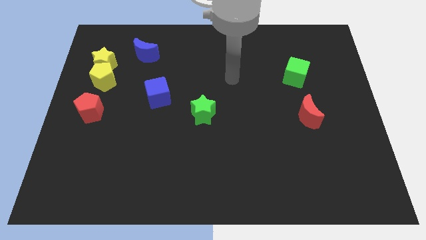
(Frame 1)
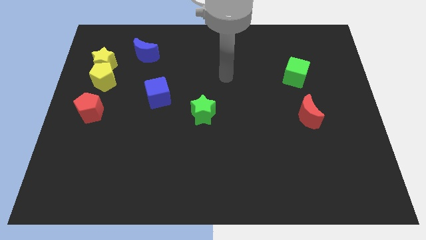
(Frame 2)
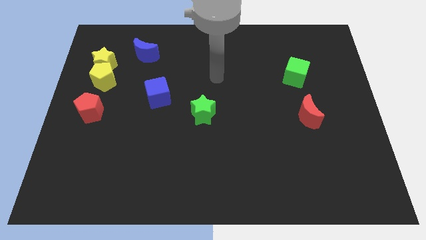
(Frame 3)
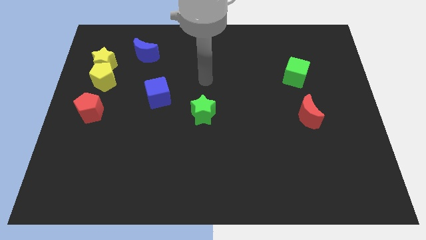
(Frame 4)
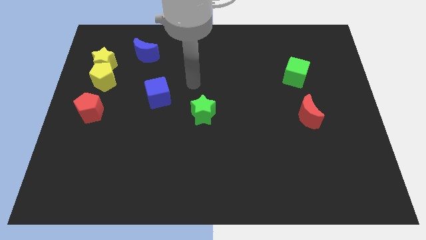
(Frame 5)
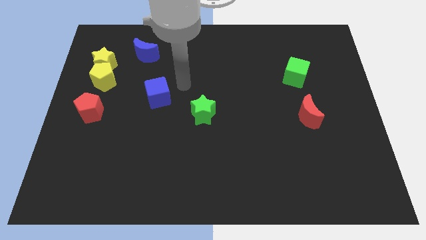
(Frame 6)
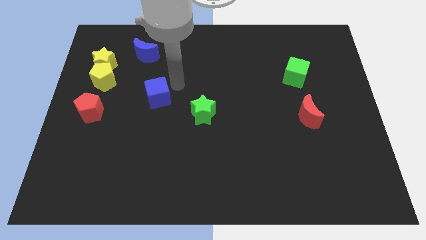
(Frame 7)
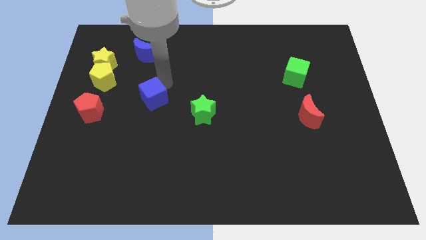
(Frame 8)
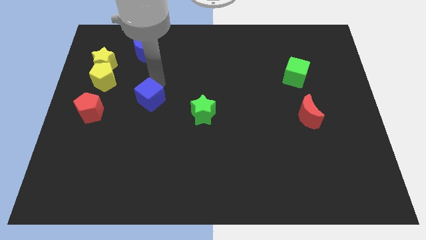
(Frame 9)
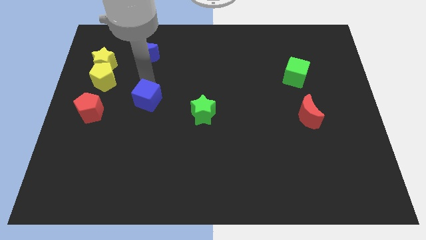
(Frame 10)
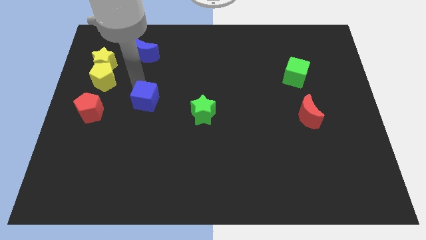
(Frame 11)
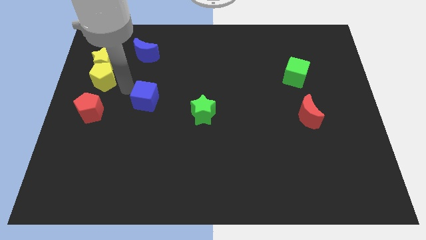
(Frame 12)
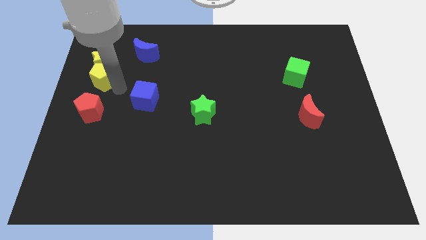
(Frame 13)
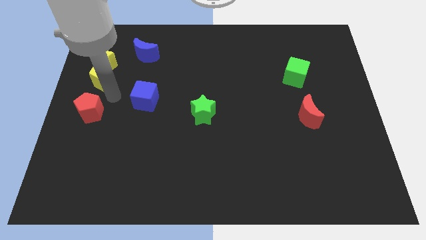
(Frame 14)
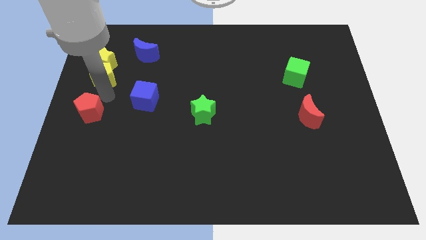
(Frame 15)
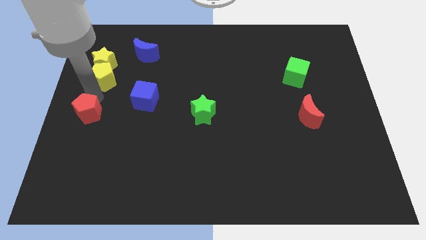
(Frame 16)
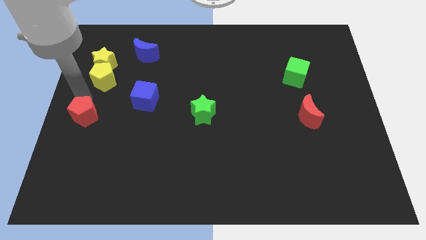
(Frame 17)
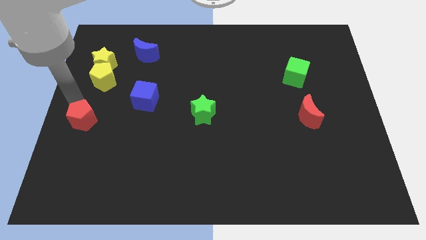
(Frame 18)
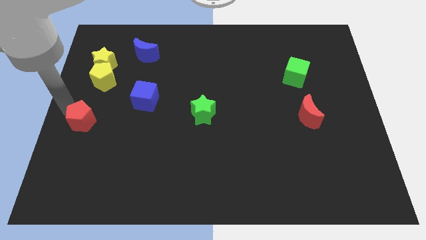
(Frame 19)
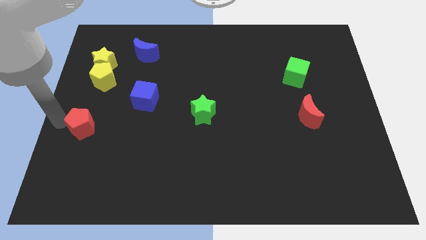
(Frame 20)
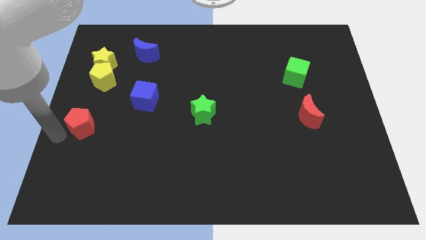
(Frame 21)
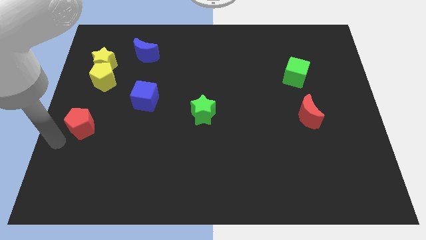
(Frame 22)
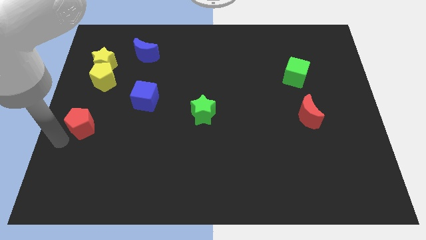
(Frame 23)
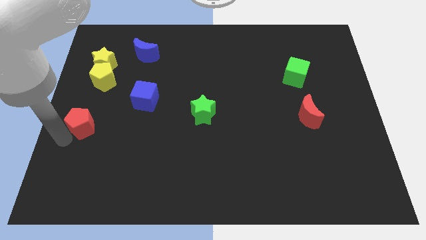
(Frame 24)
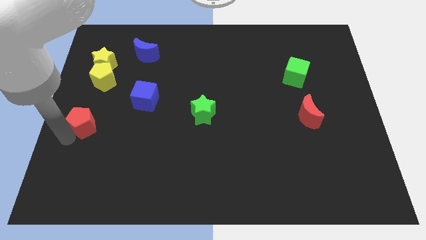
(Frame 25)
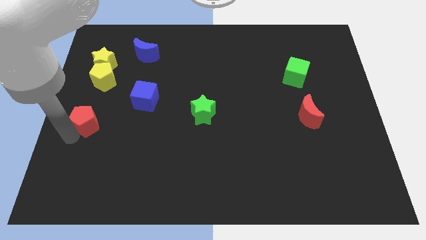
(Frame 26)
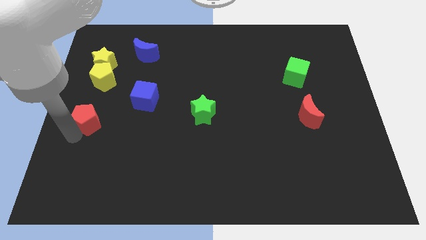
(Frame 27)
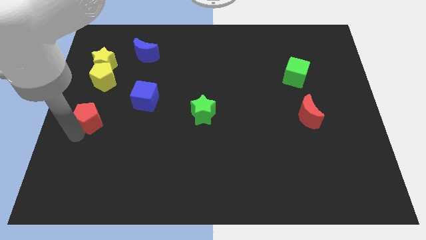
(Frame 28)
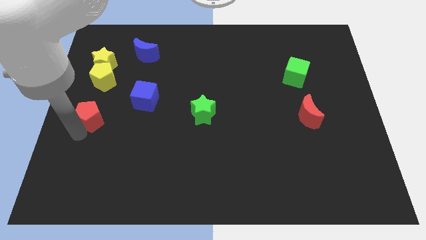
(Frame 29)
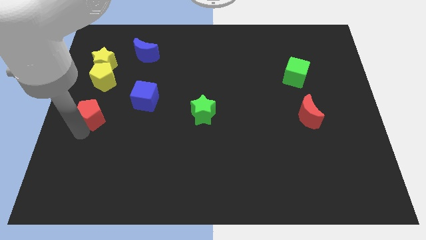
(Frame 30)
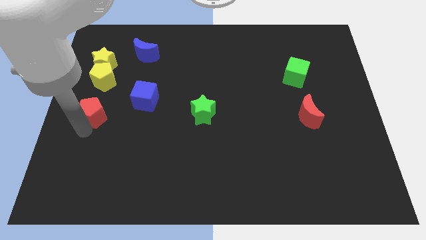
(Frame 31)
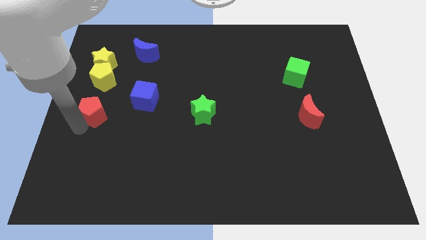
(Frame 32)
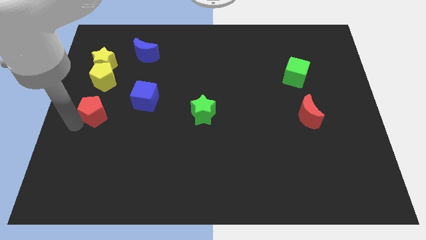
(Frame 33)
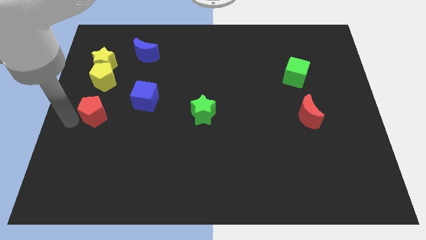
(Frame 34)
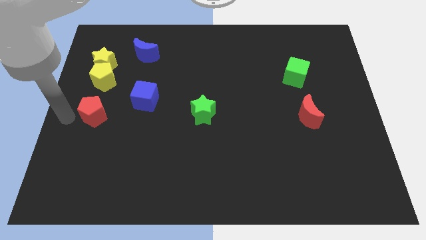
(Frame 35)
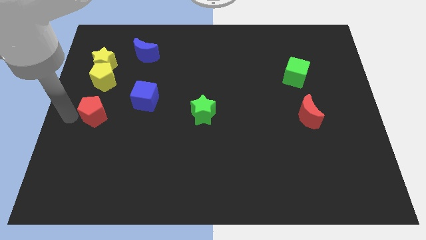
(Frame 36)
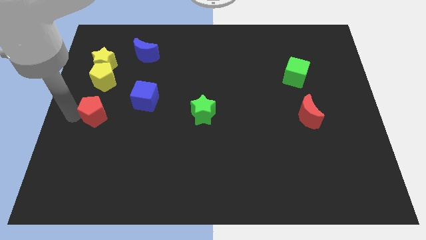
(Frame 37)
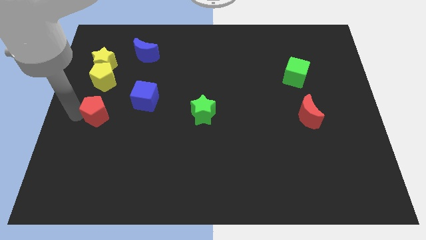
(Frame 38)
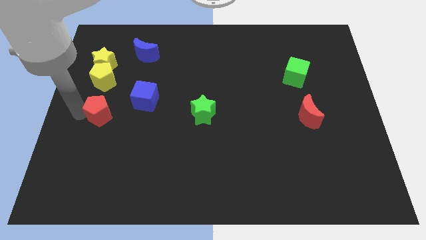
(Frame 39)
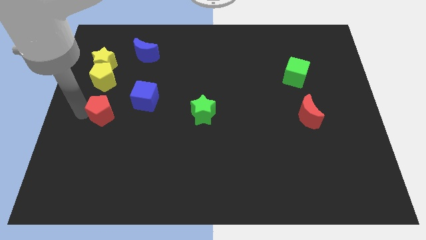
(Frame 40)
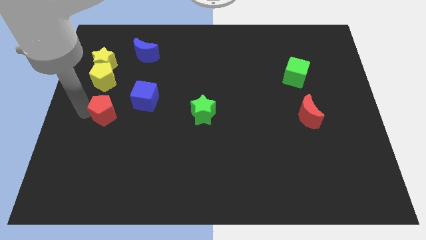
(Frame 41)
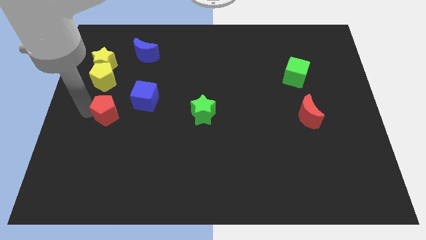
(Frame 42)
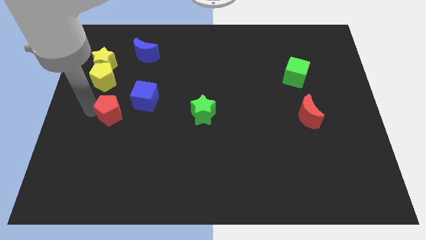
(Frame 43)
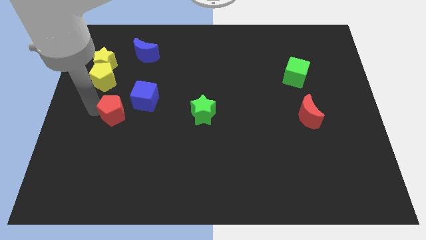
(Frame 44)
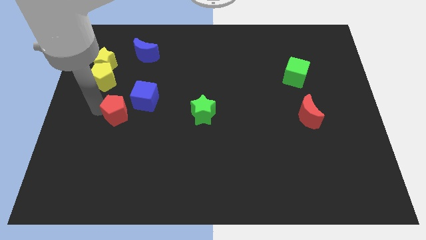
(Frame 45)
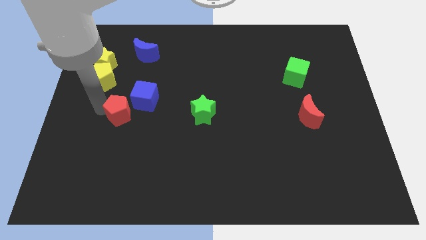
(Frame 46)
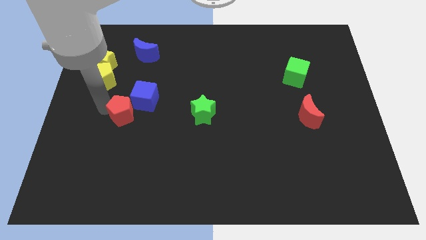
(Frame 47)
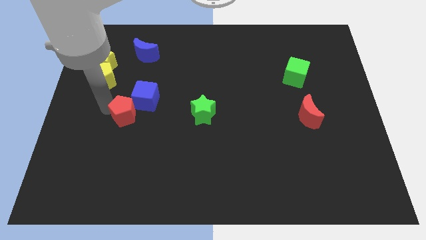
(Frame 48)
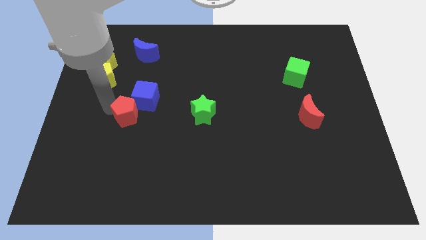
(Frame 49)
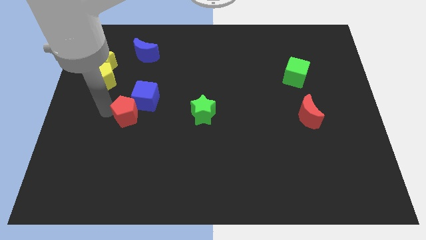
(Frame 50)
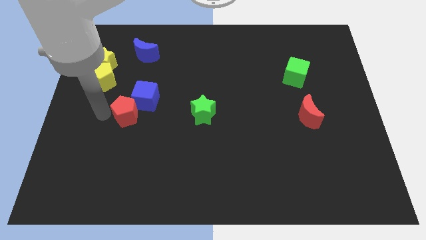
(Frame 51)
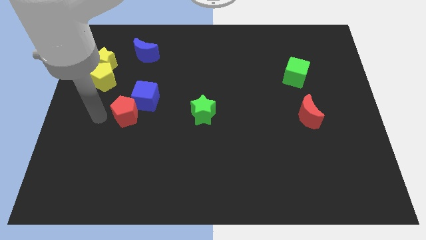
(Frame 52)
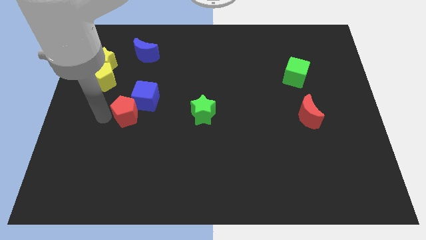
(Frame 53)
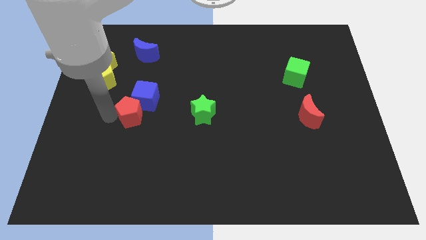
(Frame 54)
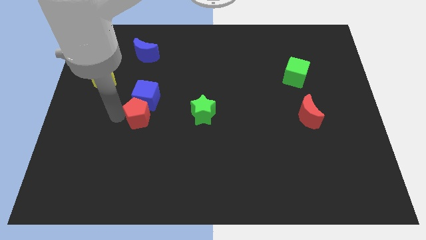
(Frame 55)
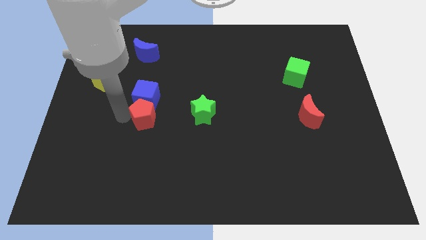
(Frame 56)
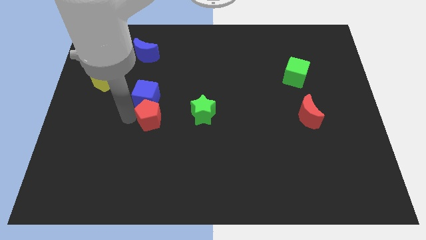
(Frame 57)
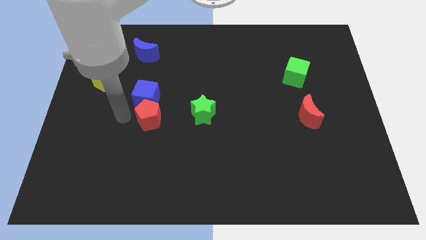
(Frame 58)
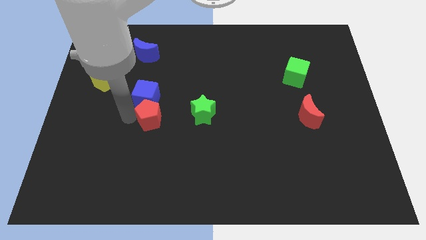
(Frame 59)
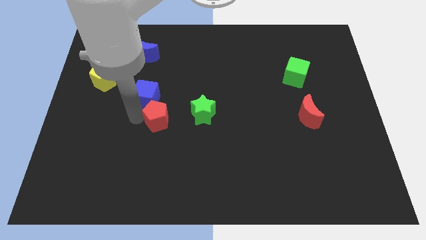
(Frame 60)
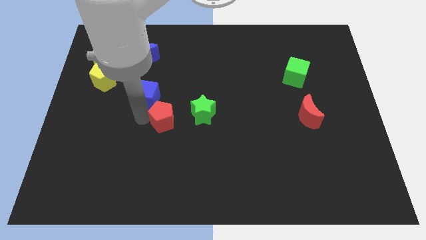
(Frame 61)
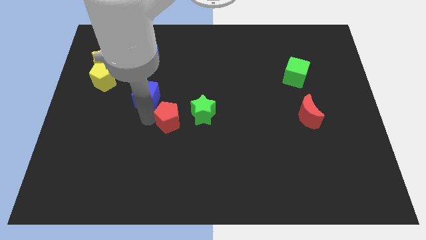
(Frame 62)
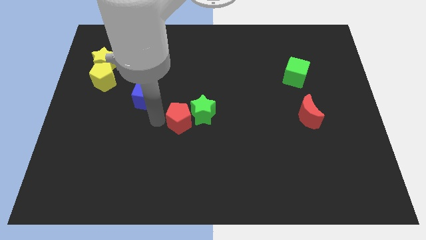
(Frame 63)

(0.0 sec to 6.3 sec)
put the red pentagon close to the green star

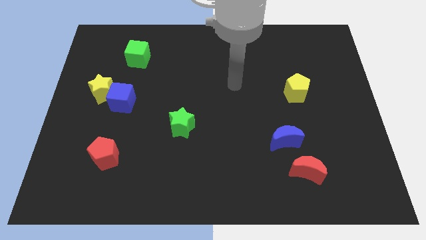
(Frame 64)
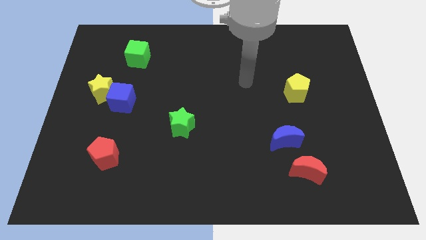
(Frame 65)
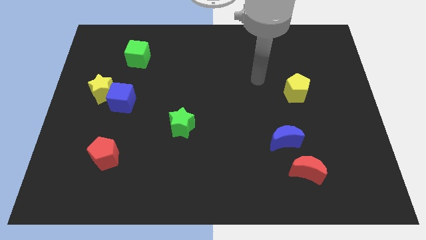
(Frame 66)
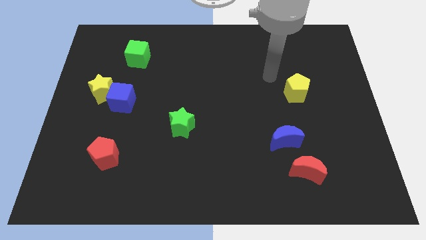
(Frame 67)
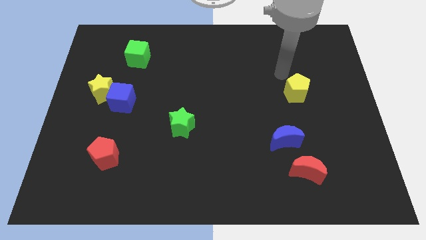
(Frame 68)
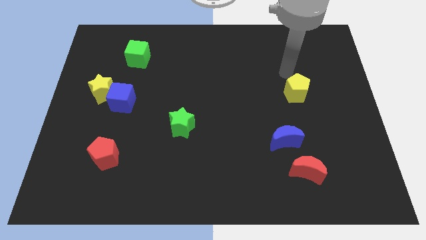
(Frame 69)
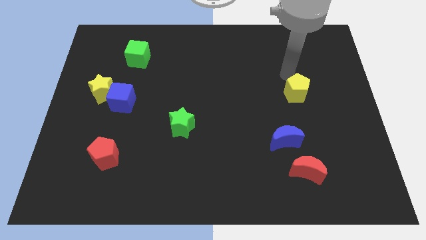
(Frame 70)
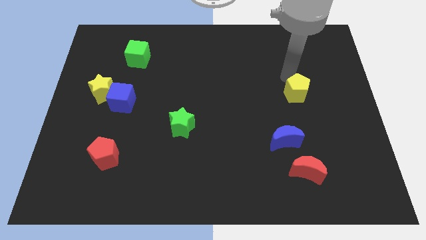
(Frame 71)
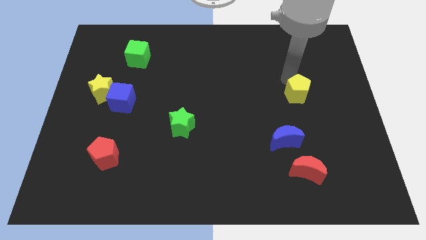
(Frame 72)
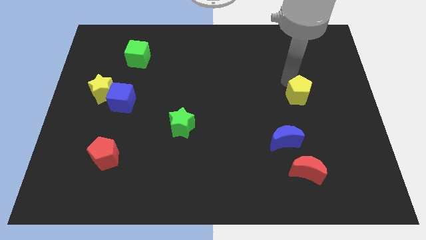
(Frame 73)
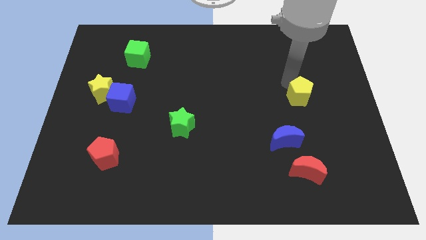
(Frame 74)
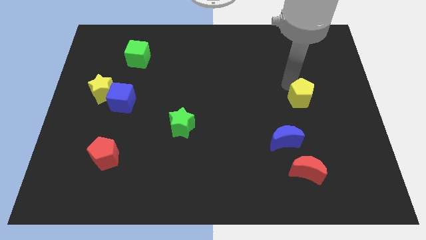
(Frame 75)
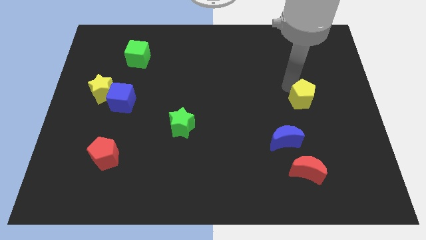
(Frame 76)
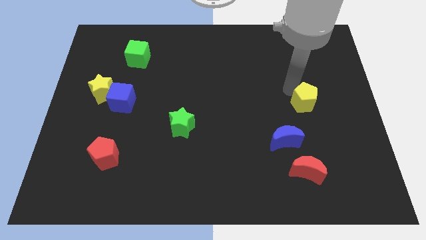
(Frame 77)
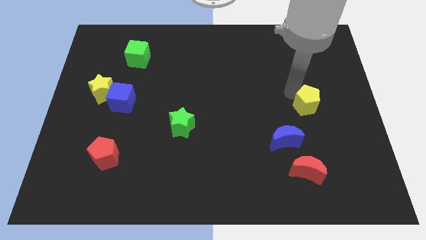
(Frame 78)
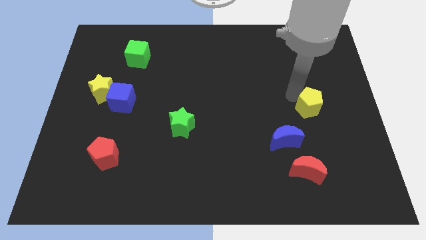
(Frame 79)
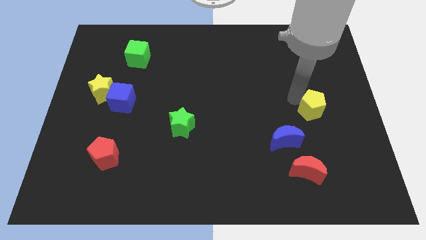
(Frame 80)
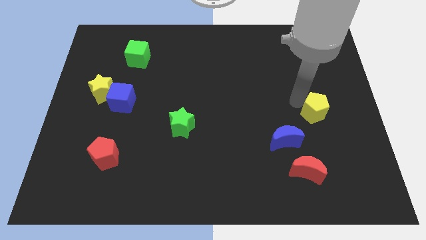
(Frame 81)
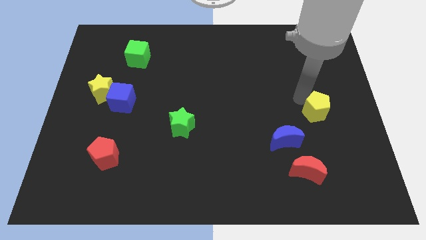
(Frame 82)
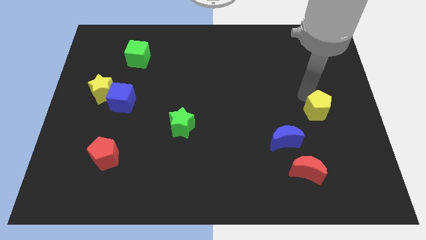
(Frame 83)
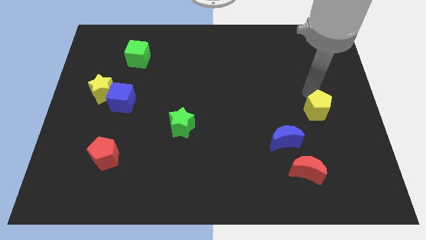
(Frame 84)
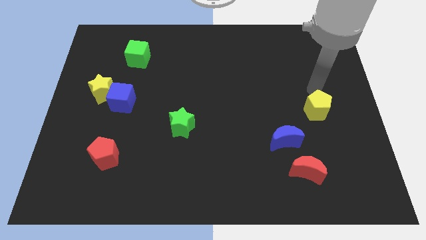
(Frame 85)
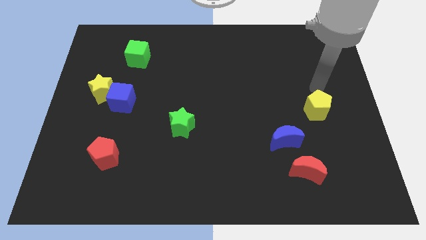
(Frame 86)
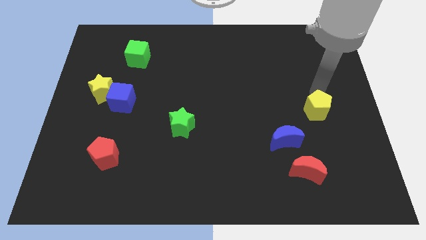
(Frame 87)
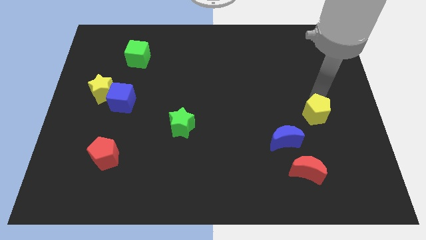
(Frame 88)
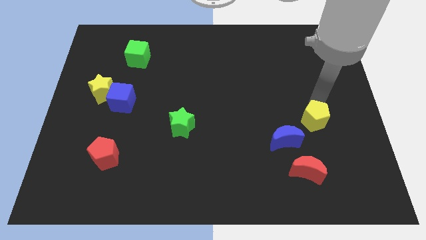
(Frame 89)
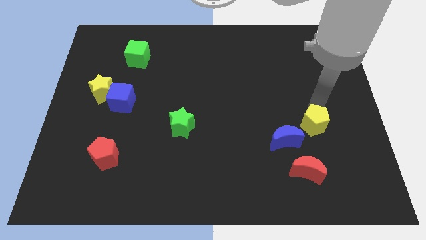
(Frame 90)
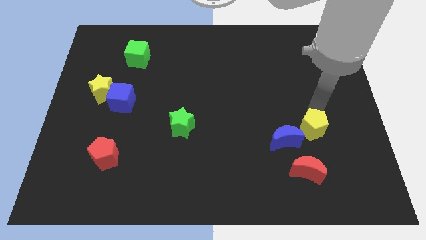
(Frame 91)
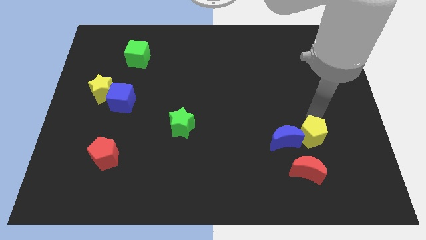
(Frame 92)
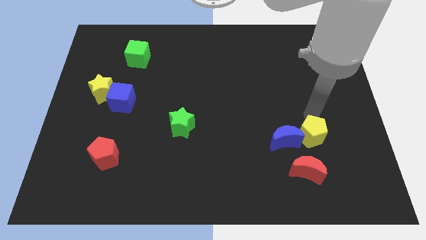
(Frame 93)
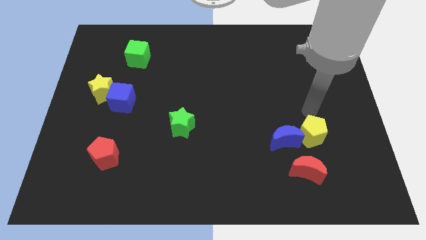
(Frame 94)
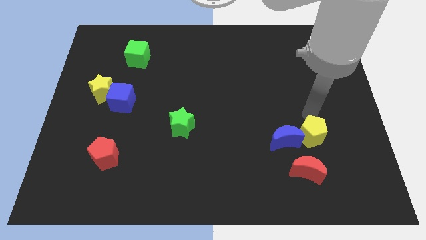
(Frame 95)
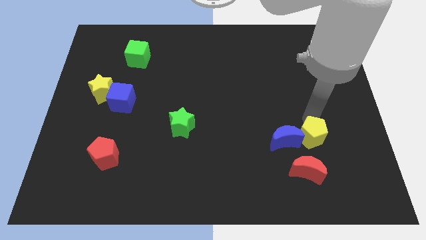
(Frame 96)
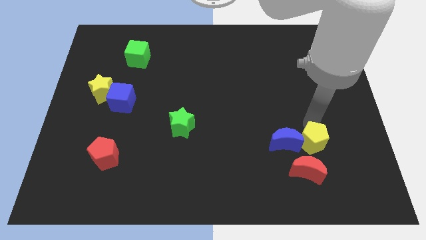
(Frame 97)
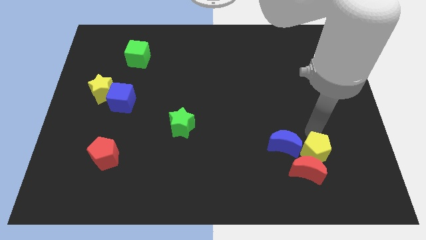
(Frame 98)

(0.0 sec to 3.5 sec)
move the yellow pentagon to the red moon
